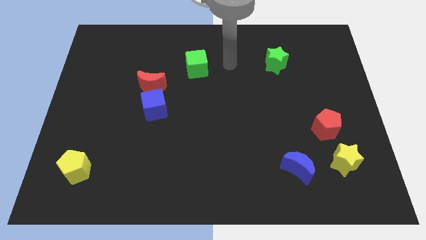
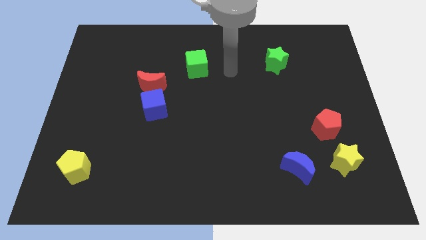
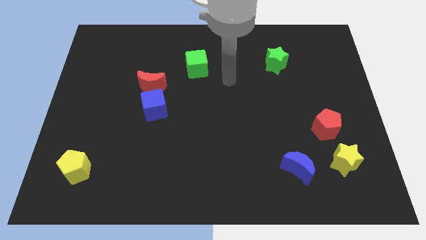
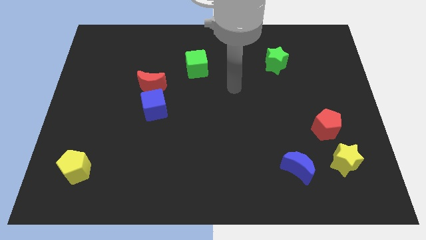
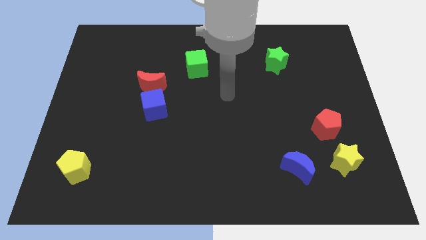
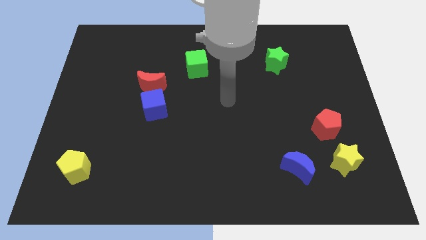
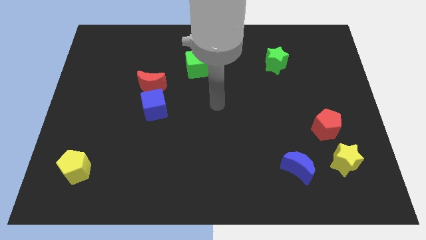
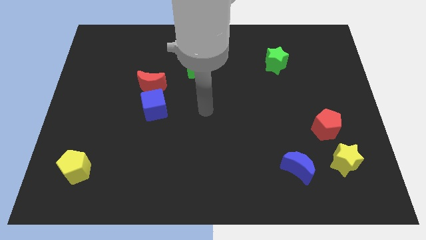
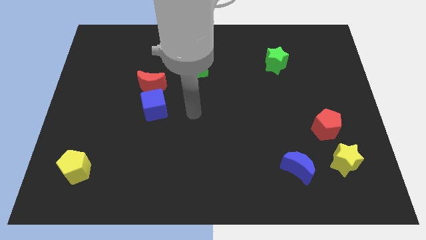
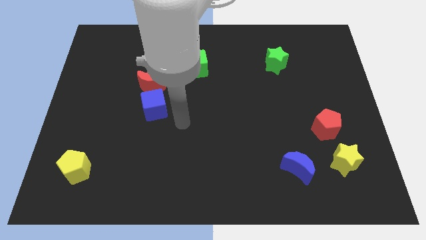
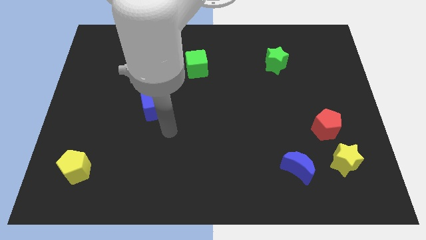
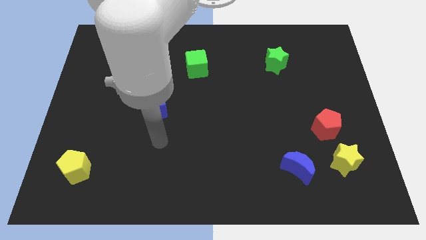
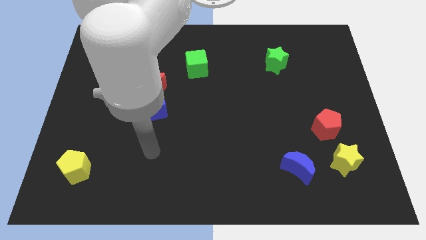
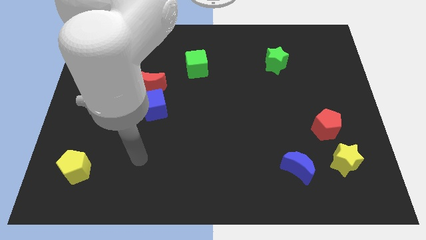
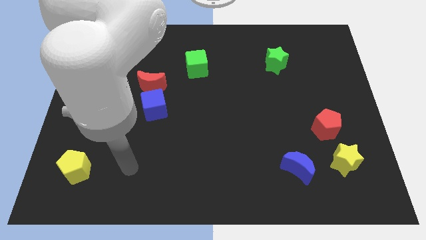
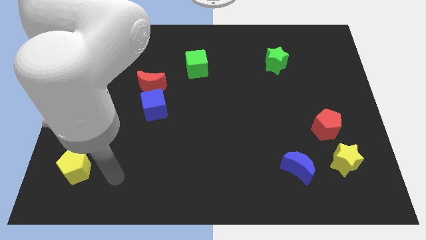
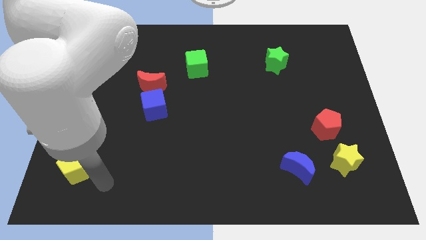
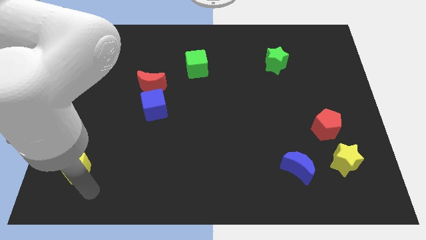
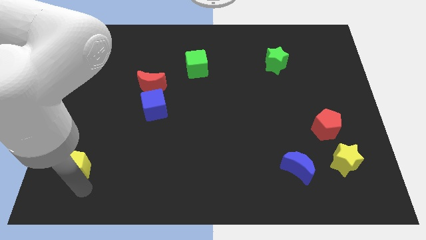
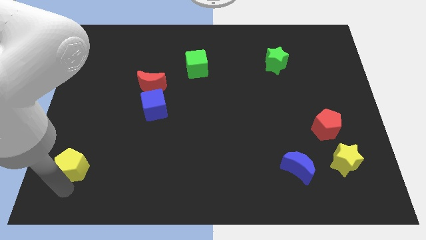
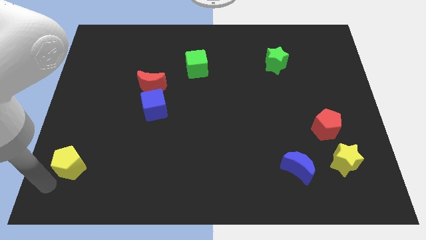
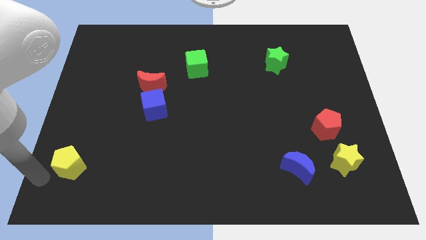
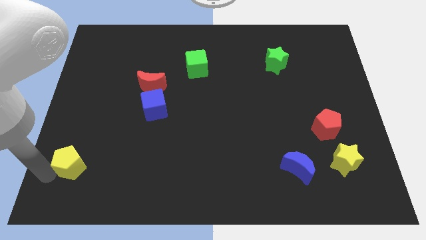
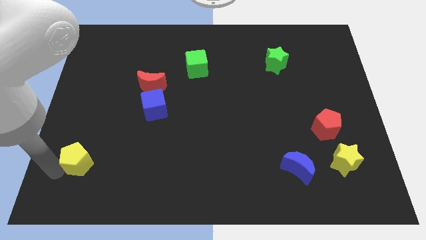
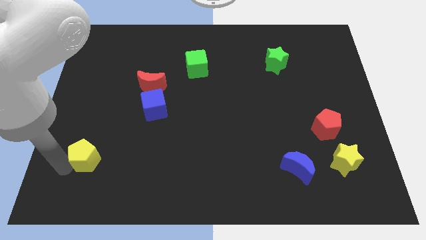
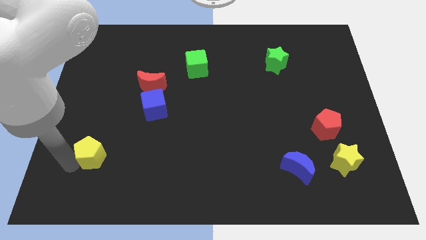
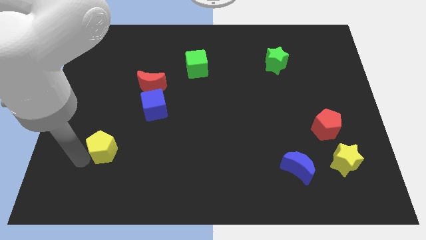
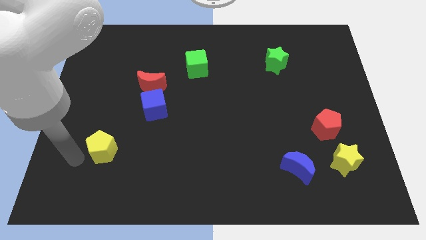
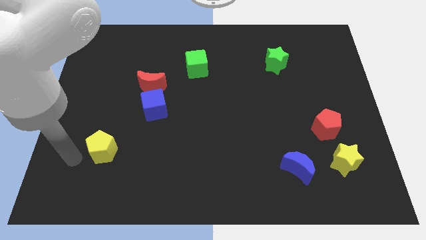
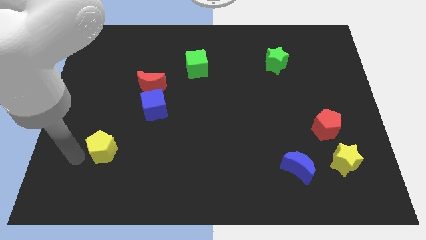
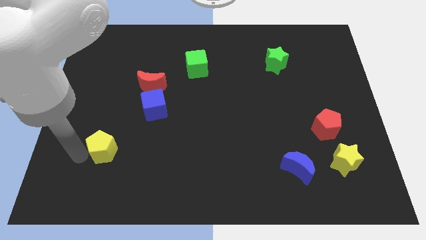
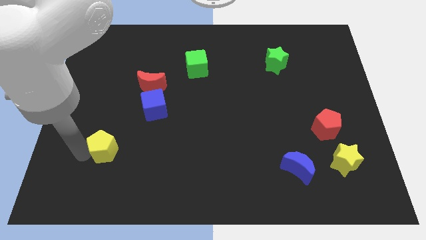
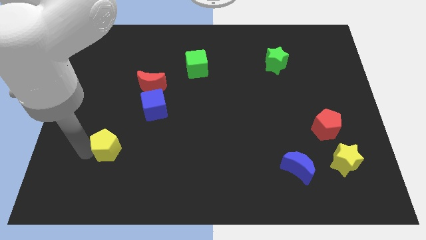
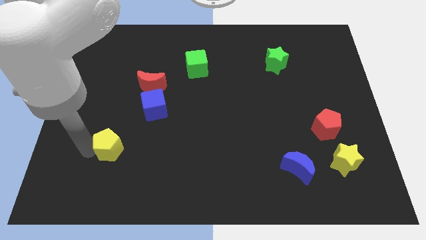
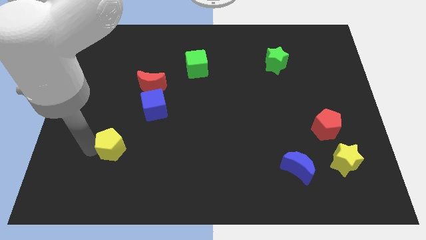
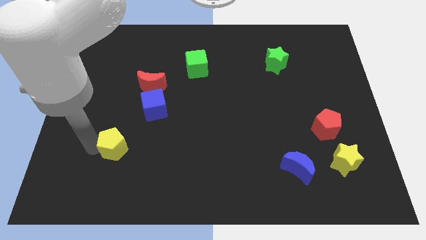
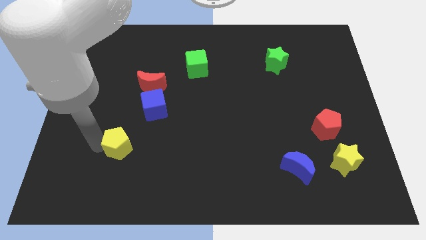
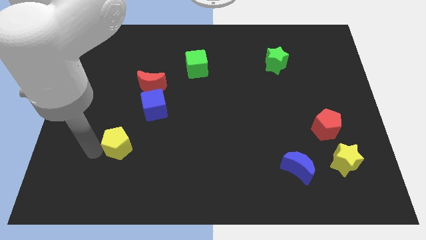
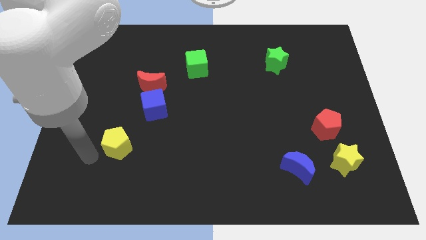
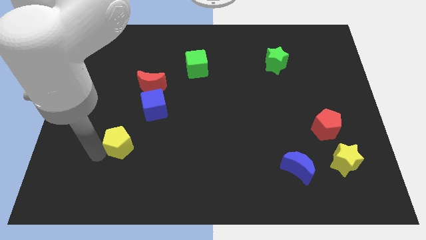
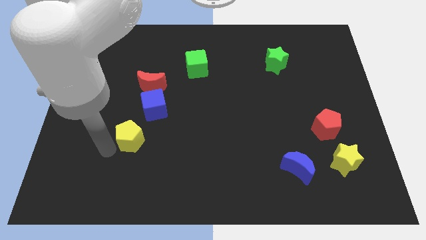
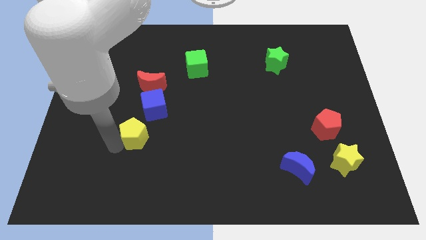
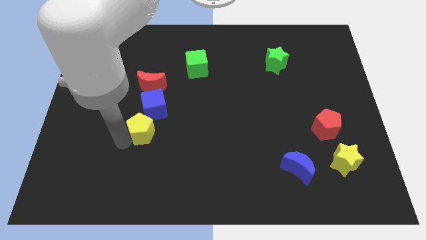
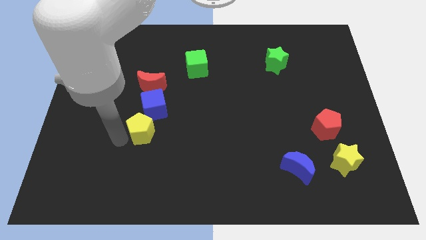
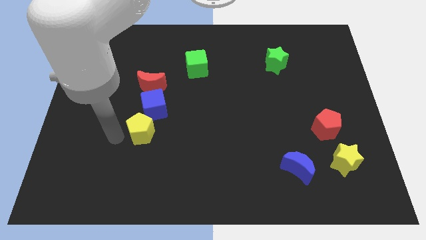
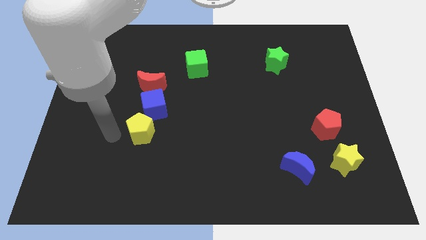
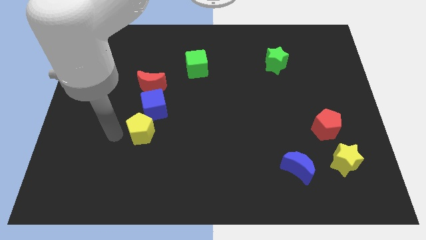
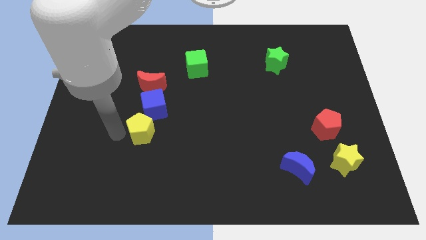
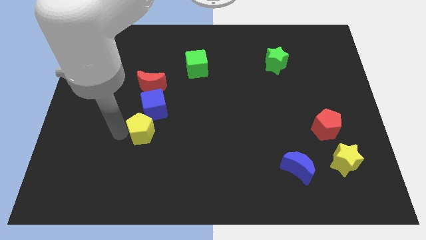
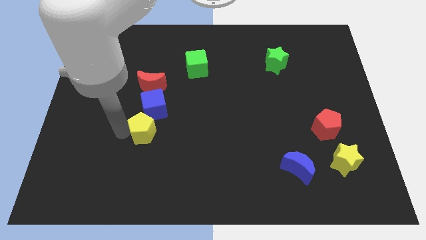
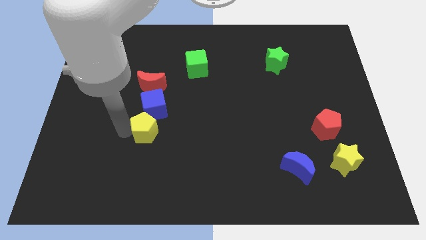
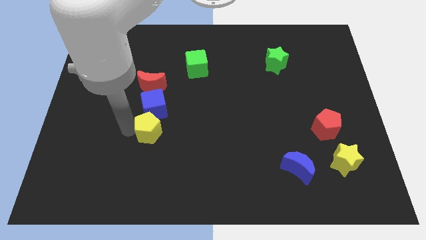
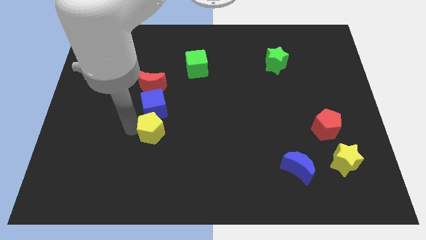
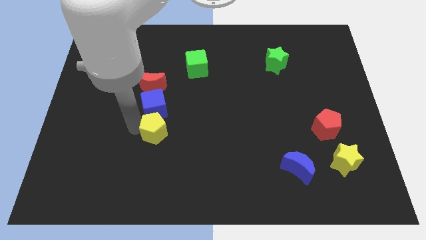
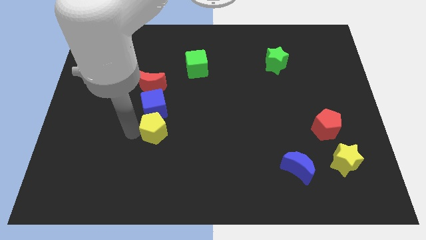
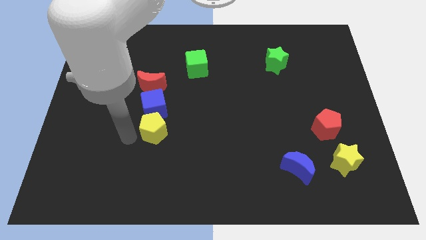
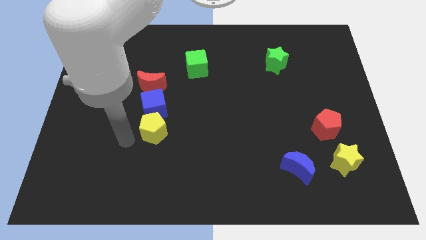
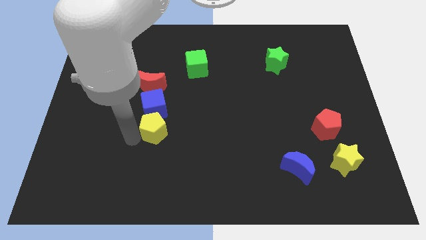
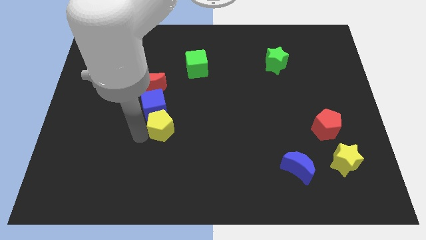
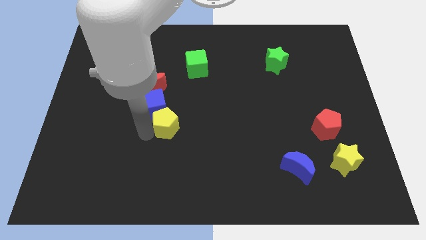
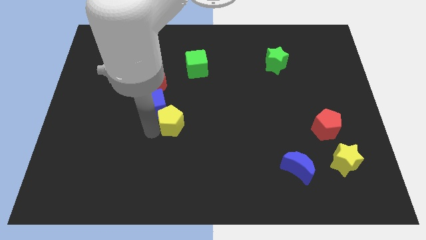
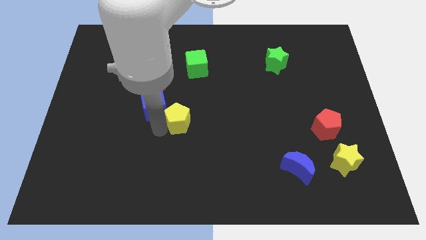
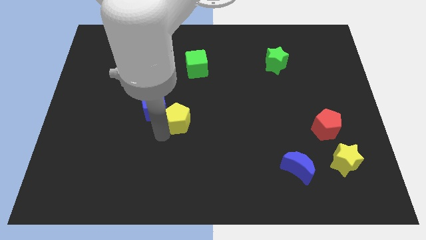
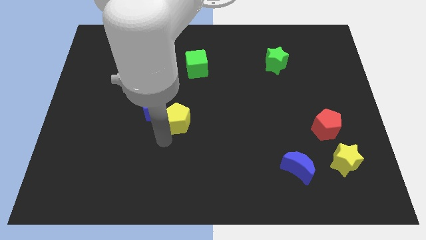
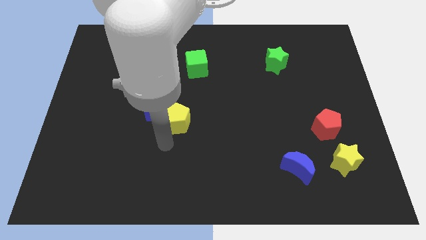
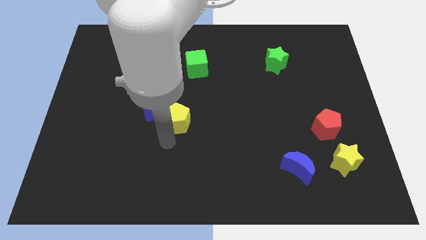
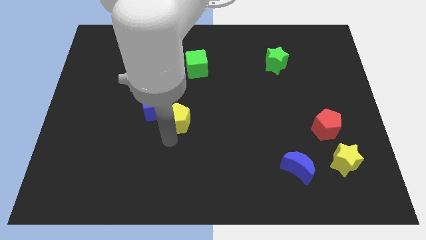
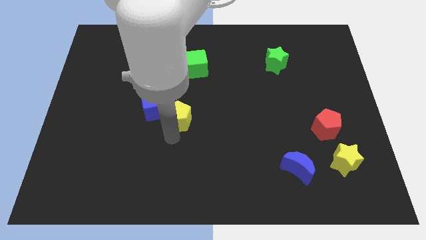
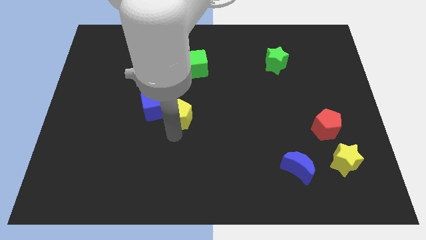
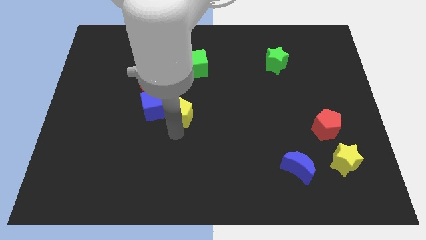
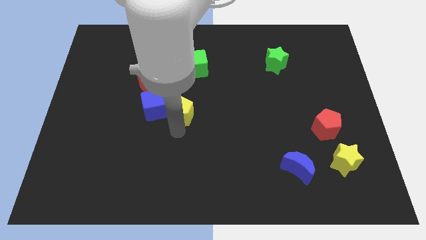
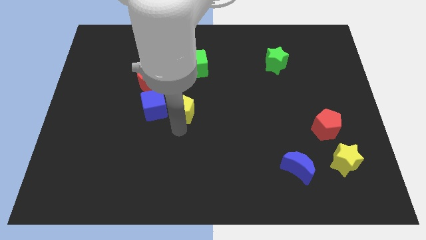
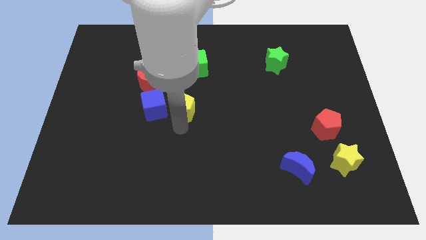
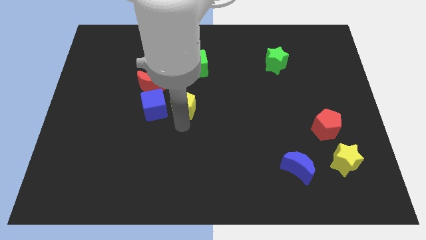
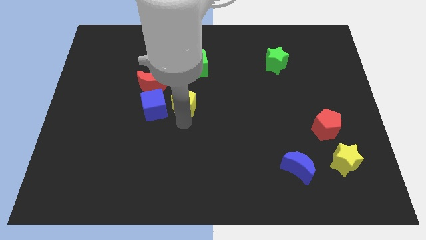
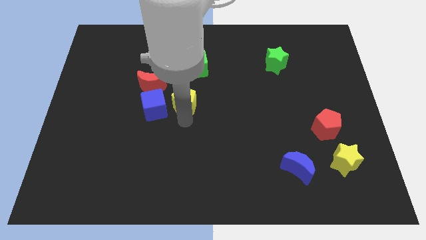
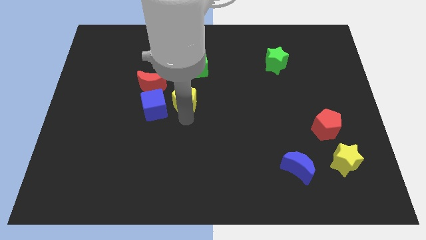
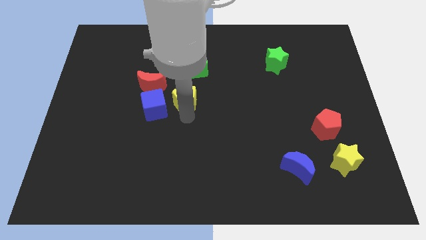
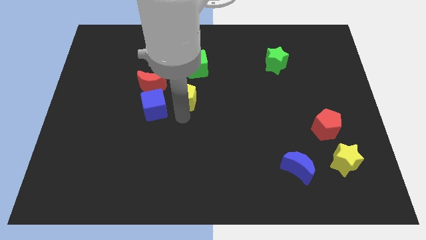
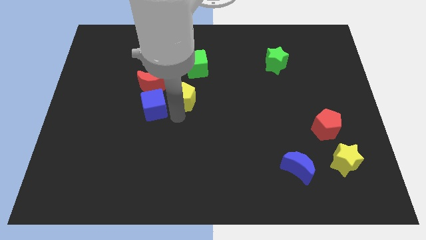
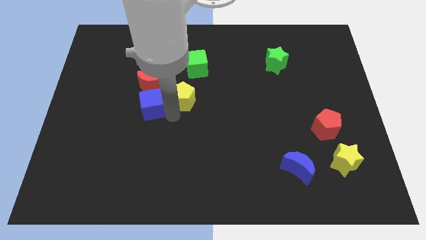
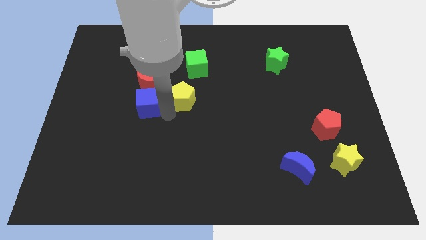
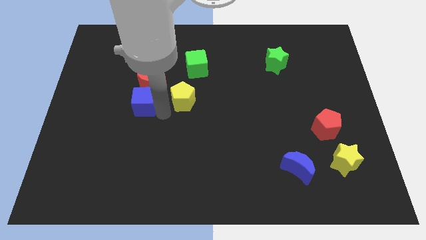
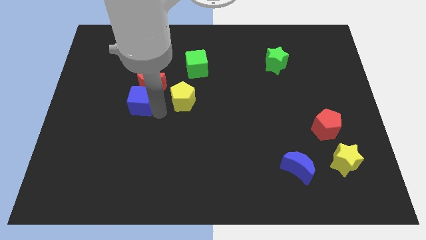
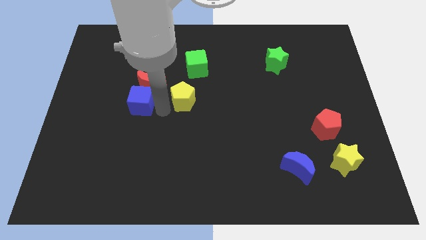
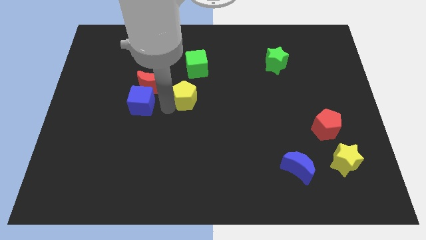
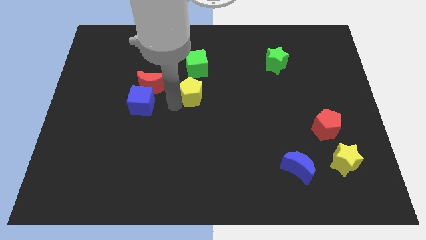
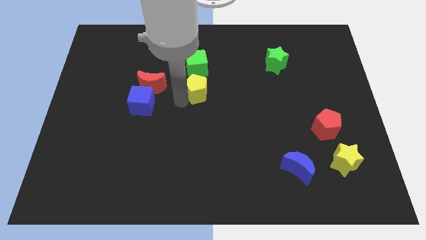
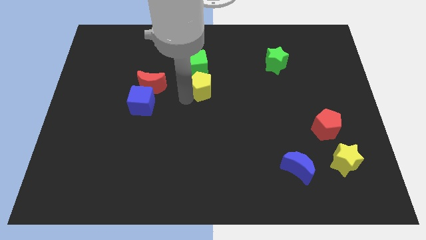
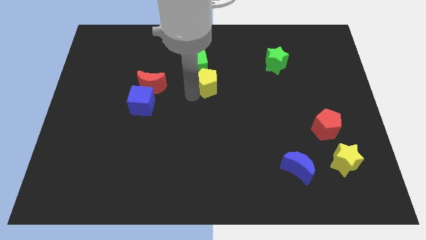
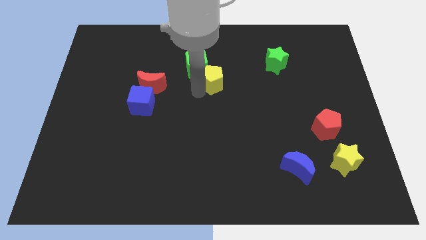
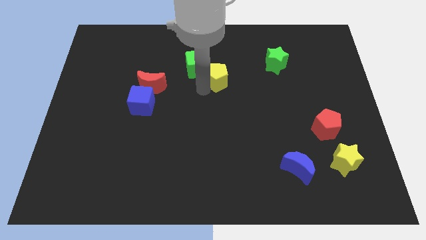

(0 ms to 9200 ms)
put the yellow pentagon to the right of the green cube
